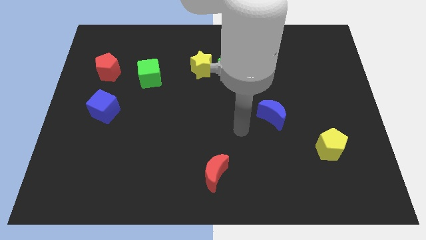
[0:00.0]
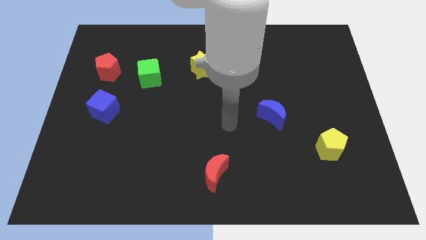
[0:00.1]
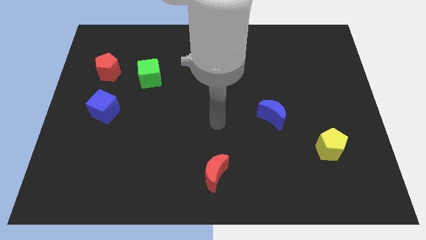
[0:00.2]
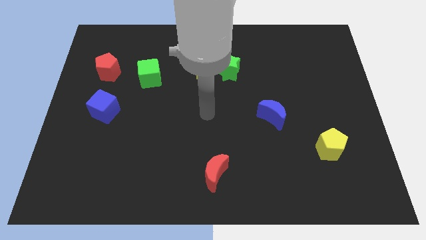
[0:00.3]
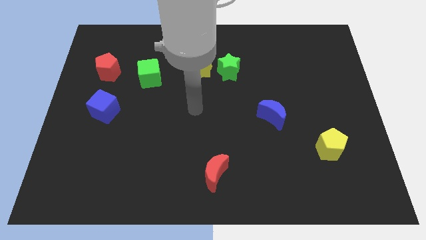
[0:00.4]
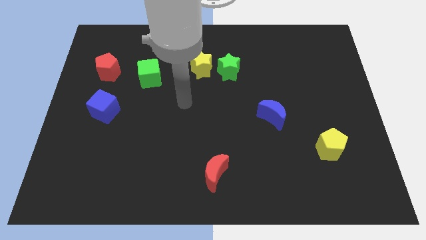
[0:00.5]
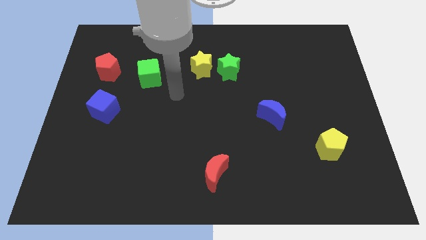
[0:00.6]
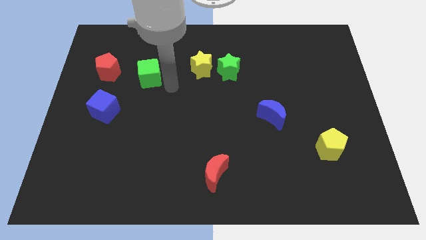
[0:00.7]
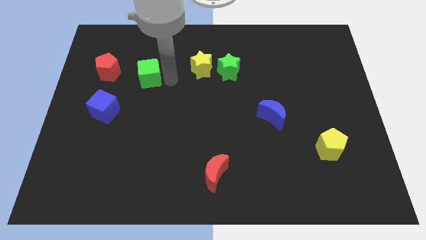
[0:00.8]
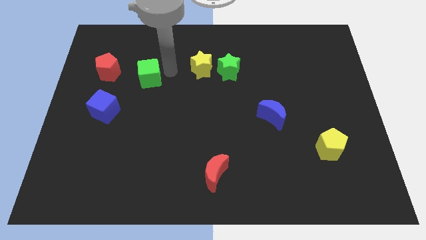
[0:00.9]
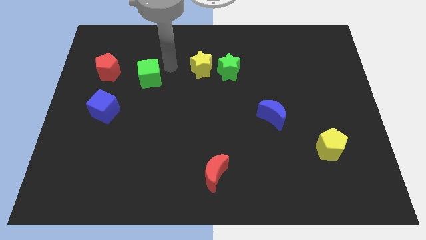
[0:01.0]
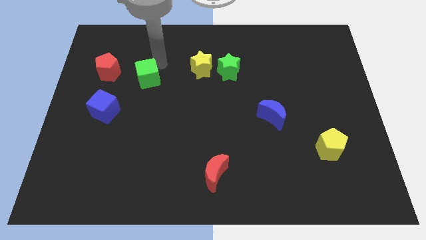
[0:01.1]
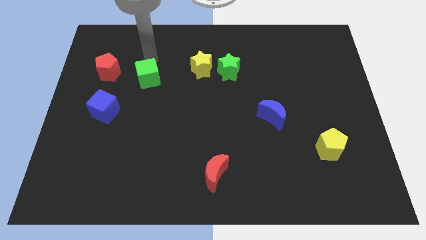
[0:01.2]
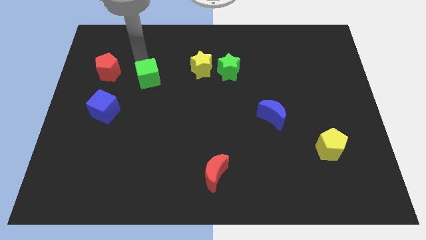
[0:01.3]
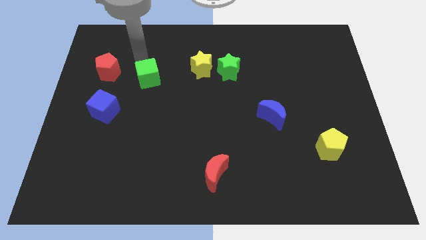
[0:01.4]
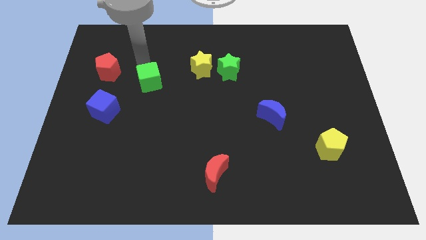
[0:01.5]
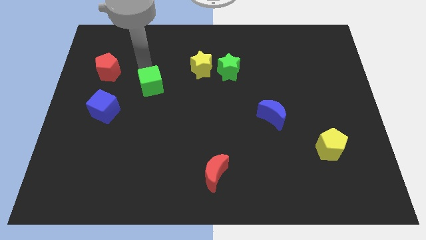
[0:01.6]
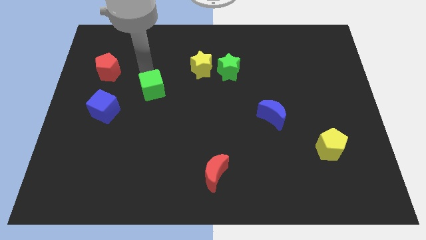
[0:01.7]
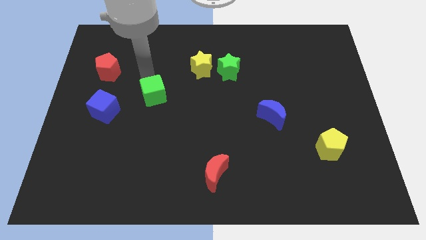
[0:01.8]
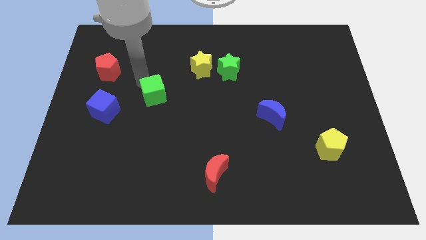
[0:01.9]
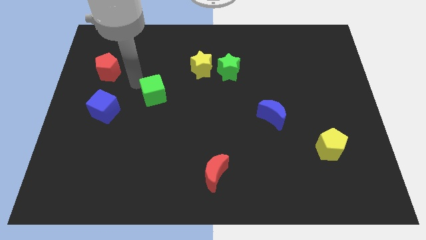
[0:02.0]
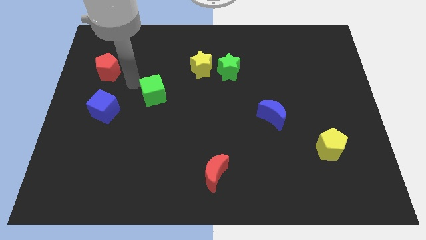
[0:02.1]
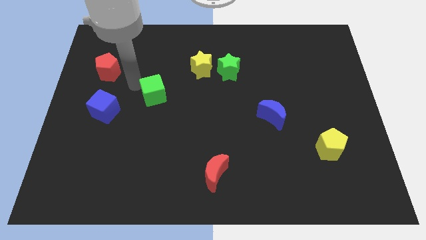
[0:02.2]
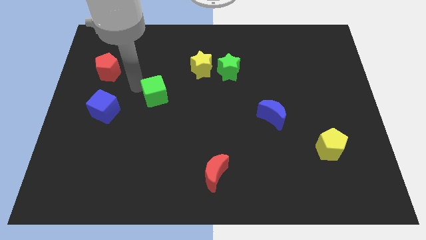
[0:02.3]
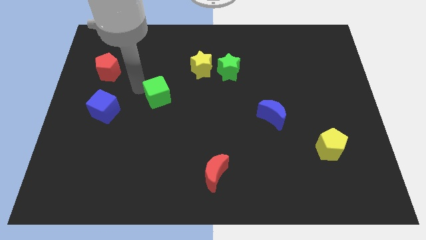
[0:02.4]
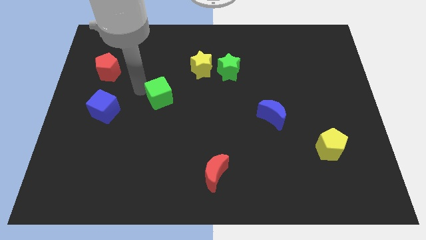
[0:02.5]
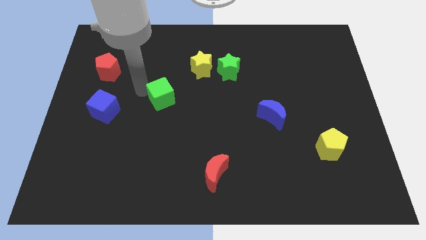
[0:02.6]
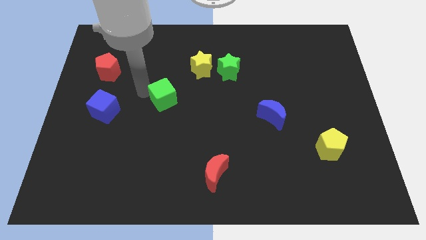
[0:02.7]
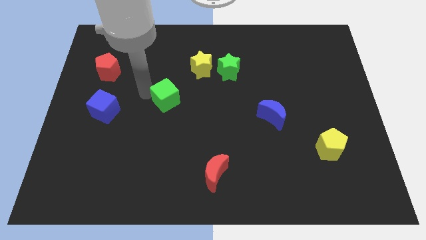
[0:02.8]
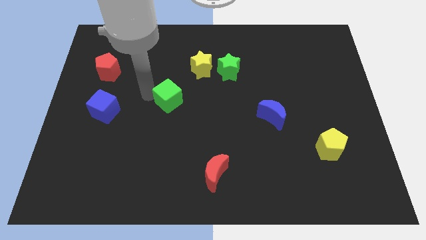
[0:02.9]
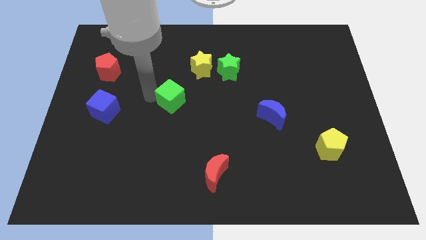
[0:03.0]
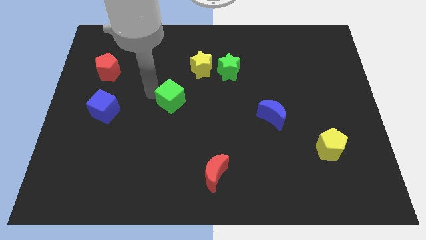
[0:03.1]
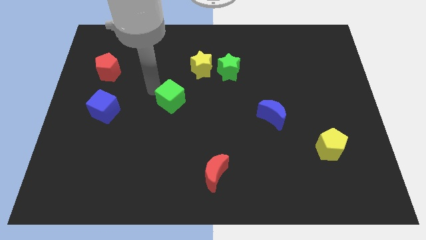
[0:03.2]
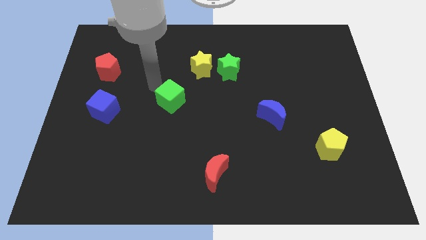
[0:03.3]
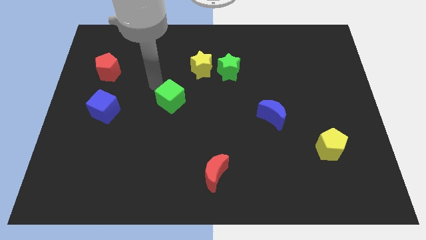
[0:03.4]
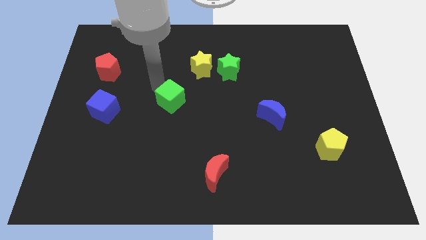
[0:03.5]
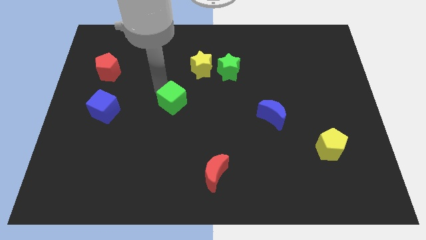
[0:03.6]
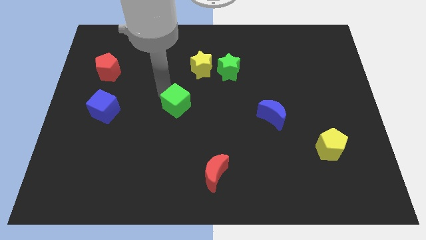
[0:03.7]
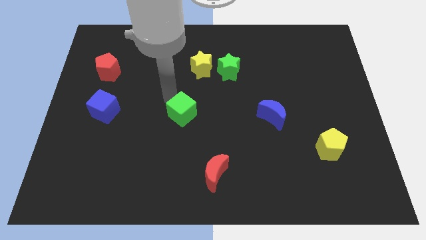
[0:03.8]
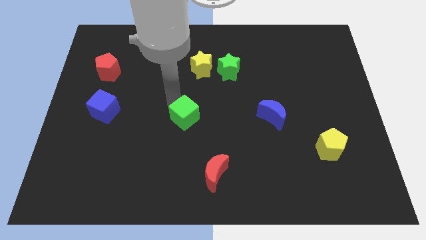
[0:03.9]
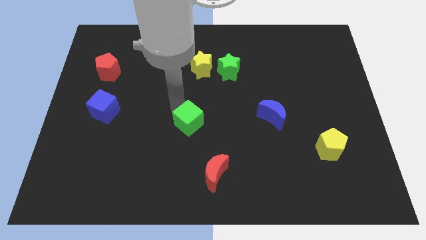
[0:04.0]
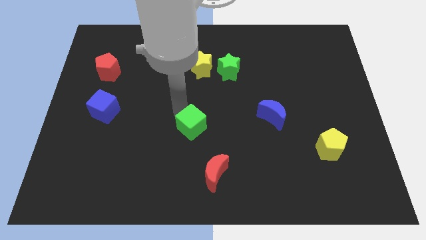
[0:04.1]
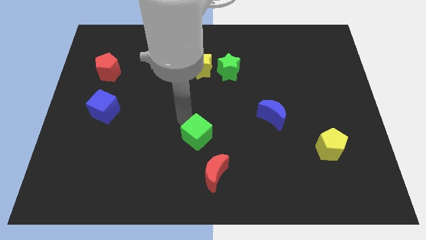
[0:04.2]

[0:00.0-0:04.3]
push the green cube down and to the right

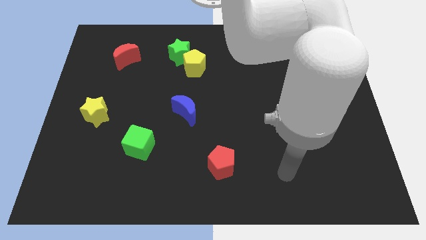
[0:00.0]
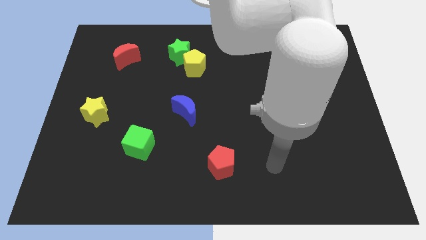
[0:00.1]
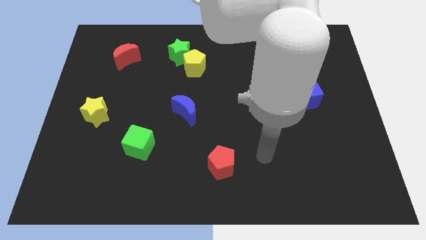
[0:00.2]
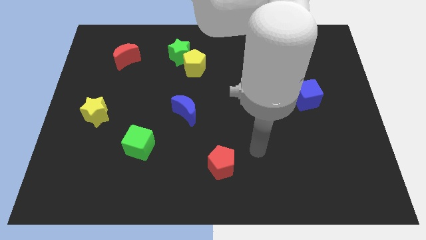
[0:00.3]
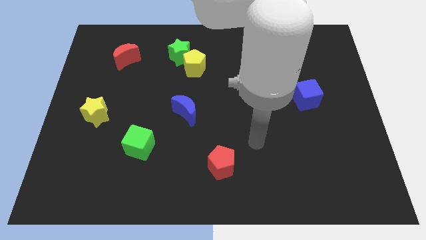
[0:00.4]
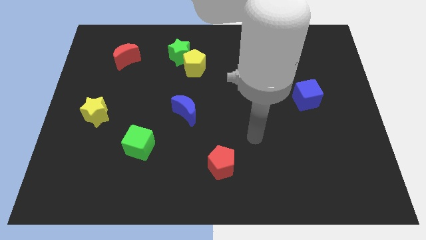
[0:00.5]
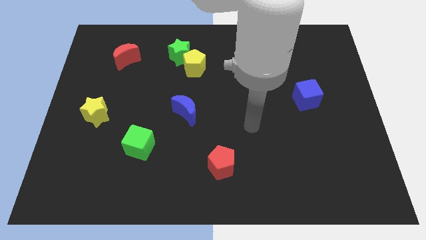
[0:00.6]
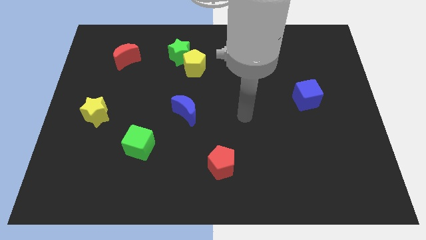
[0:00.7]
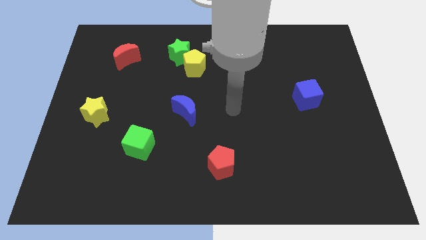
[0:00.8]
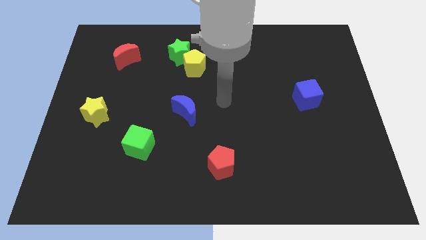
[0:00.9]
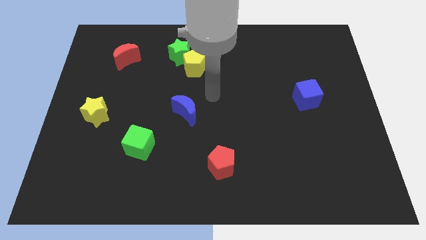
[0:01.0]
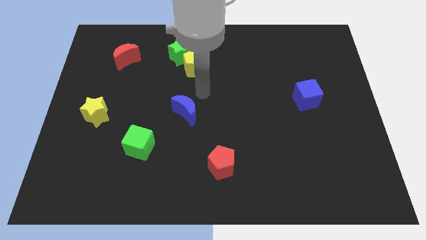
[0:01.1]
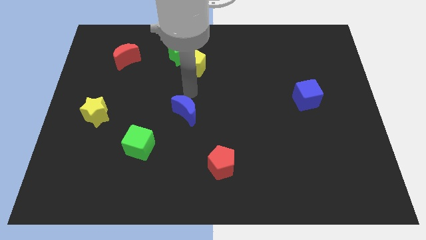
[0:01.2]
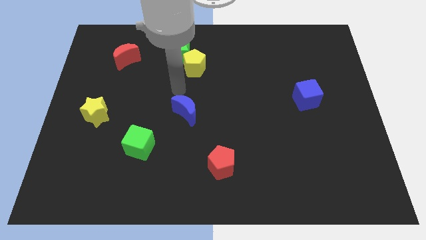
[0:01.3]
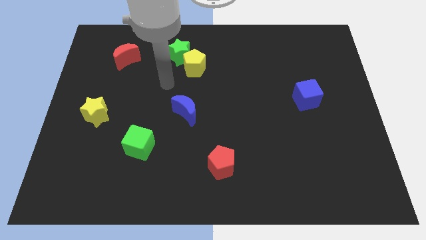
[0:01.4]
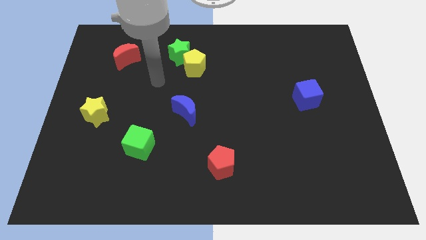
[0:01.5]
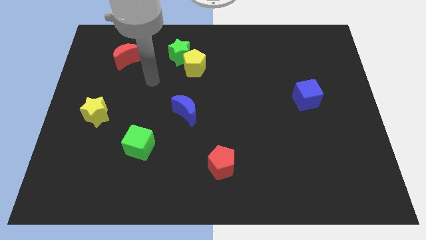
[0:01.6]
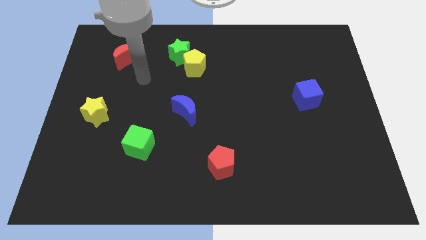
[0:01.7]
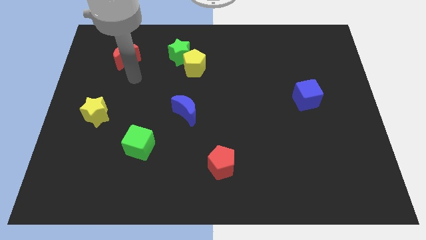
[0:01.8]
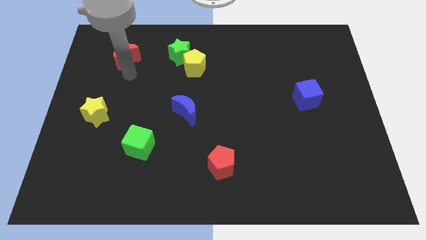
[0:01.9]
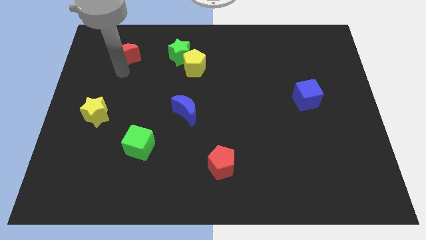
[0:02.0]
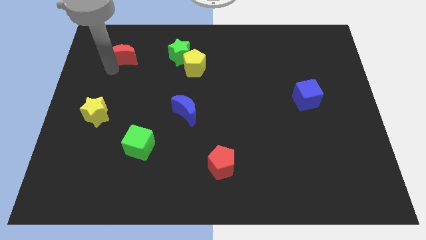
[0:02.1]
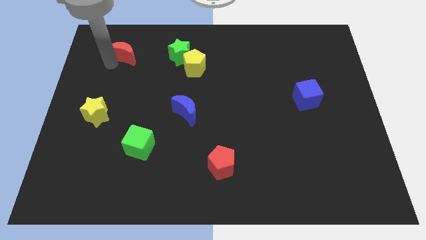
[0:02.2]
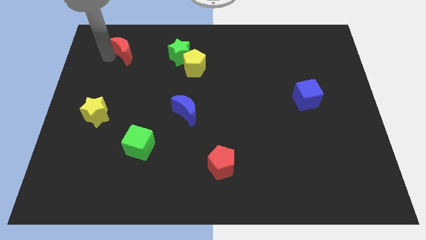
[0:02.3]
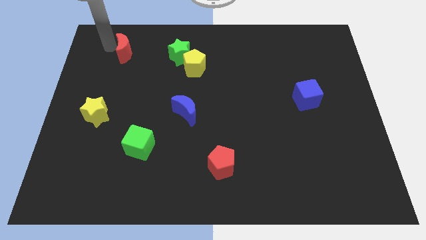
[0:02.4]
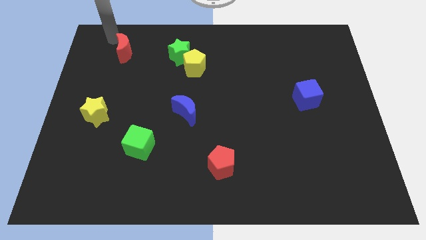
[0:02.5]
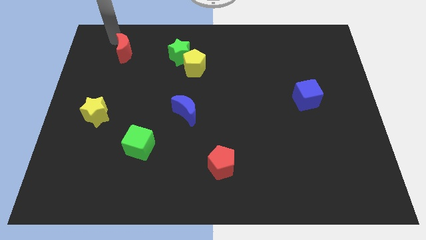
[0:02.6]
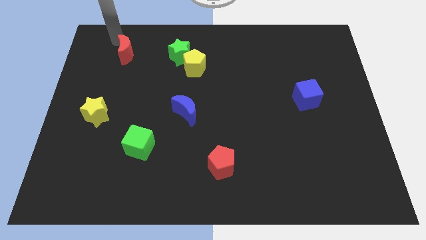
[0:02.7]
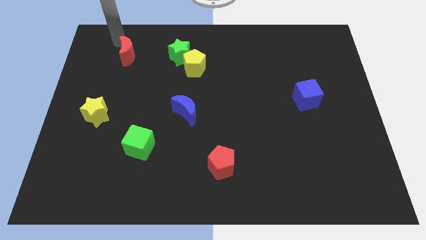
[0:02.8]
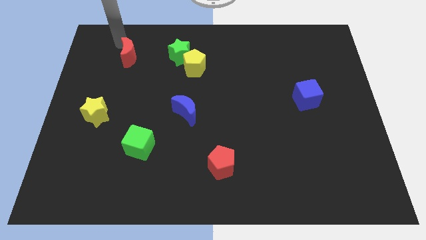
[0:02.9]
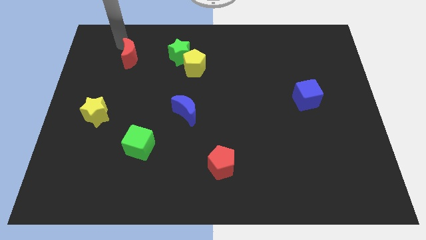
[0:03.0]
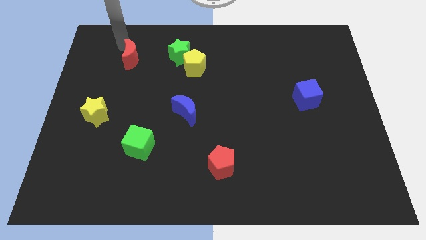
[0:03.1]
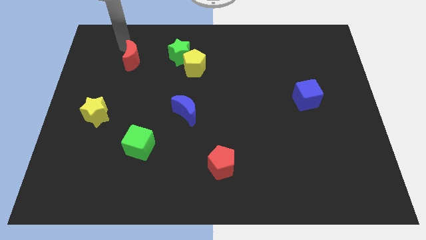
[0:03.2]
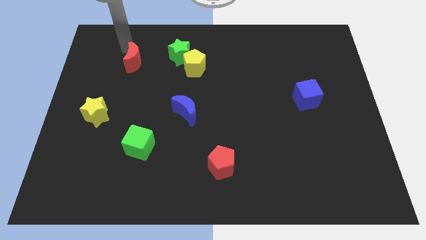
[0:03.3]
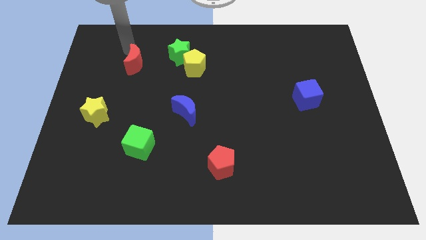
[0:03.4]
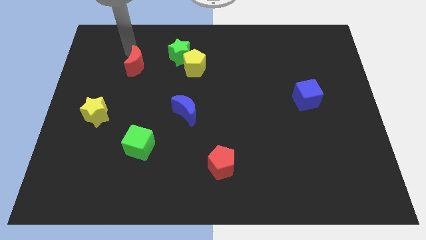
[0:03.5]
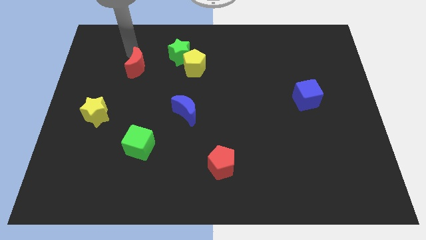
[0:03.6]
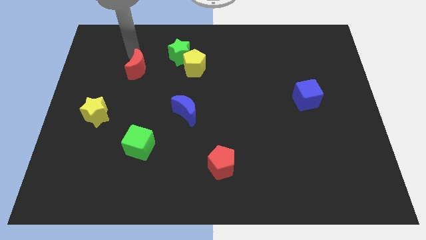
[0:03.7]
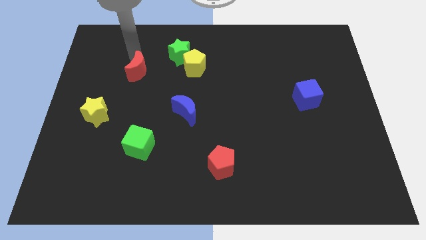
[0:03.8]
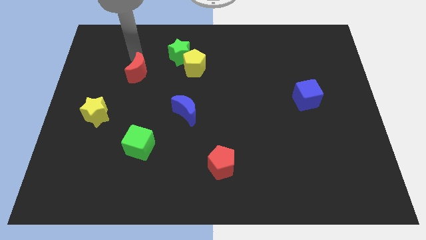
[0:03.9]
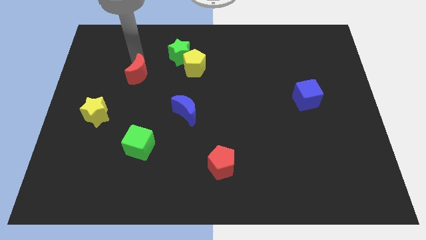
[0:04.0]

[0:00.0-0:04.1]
slide the red moon a bit diagonally downwards and right
